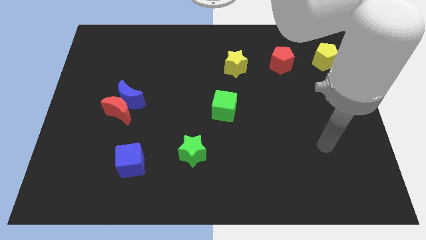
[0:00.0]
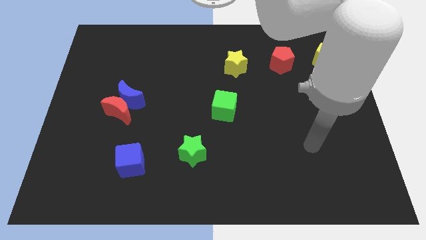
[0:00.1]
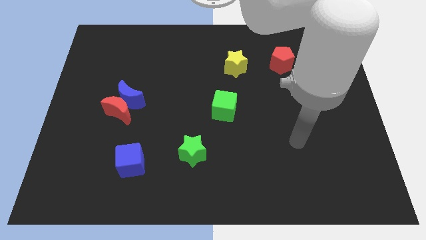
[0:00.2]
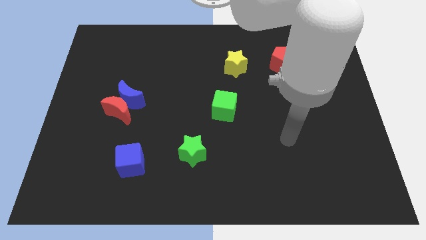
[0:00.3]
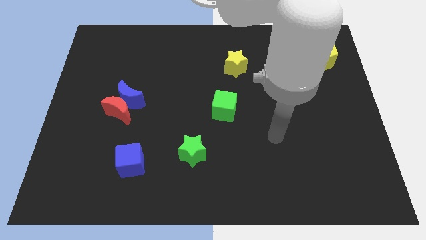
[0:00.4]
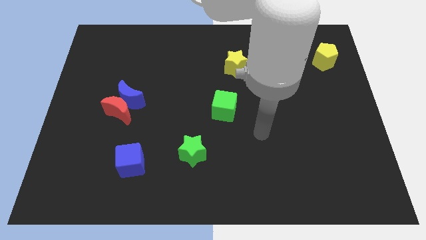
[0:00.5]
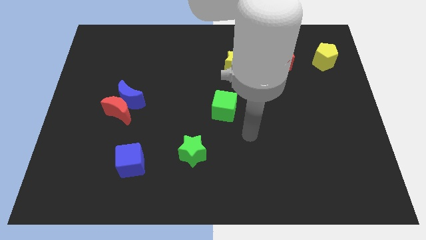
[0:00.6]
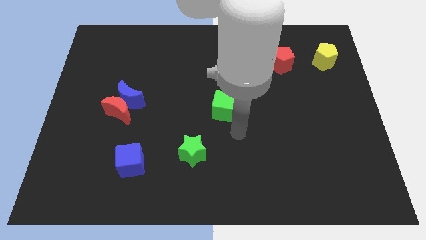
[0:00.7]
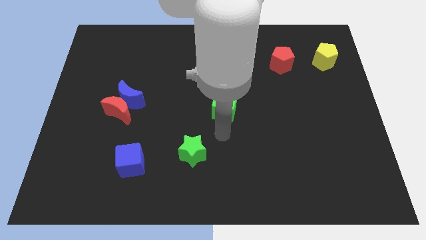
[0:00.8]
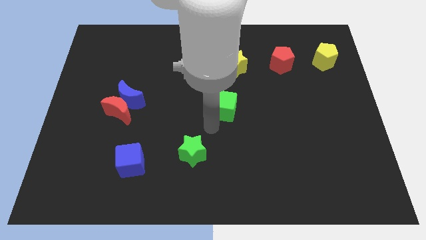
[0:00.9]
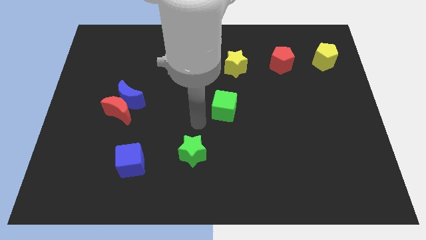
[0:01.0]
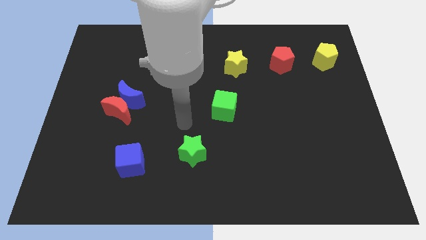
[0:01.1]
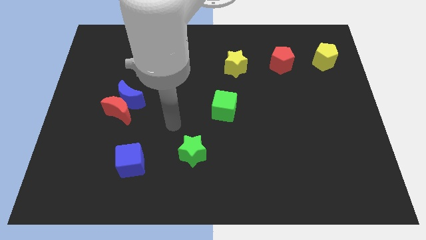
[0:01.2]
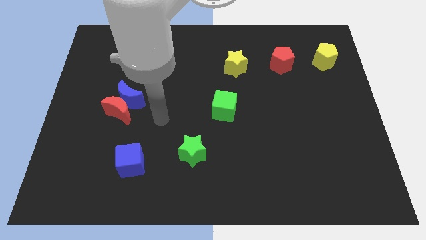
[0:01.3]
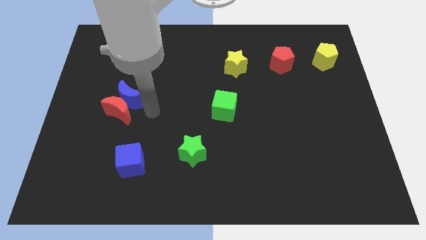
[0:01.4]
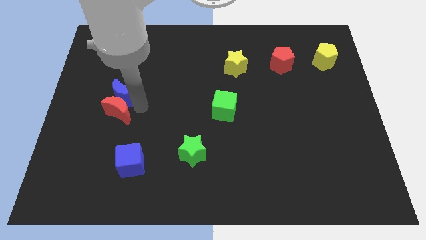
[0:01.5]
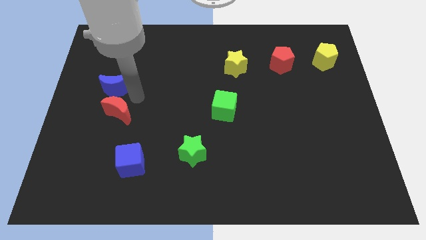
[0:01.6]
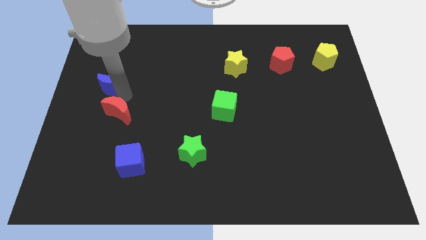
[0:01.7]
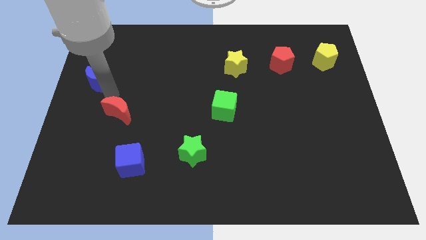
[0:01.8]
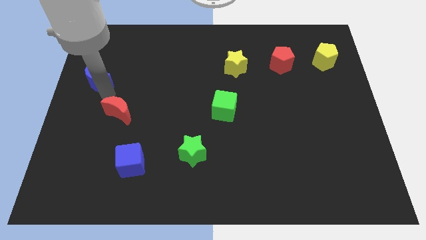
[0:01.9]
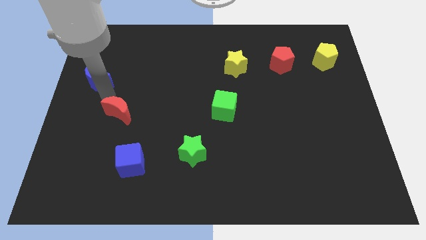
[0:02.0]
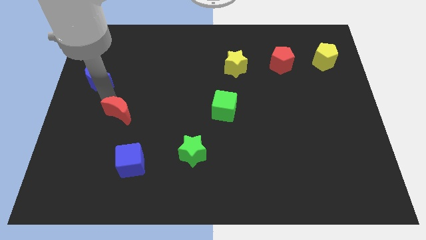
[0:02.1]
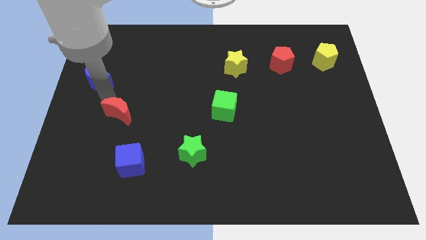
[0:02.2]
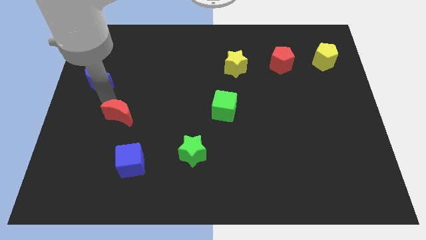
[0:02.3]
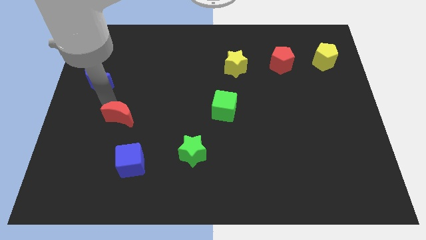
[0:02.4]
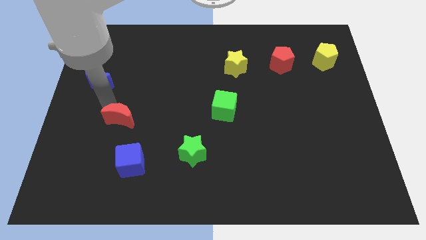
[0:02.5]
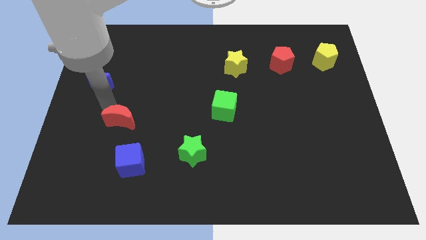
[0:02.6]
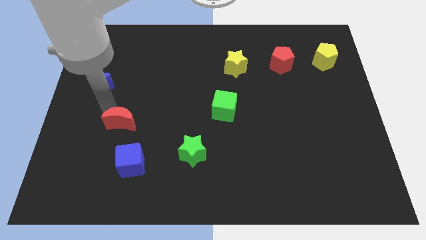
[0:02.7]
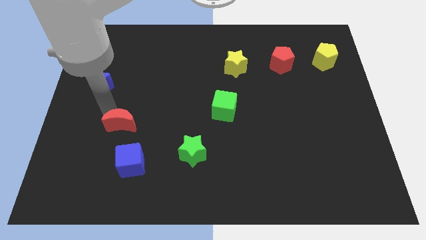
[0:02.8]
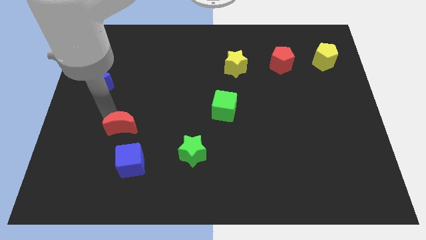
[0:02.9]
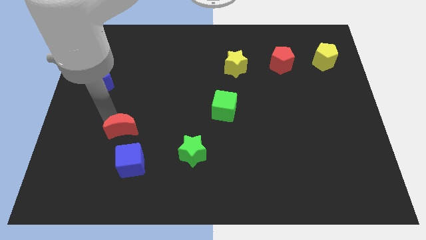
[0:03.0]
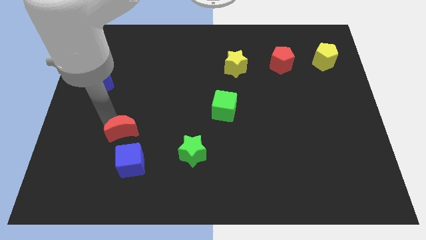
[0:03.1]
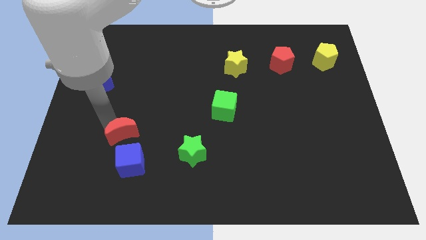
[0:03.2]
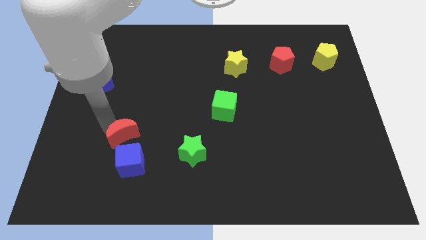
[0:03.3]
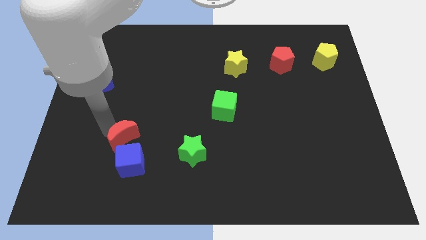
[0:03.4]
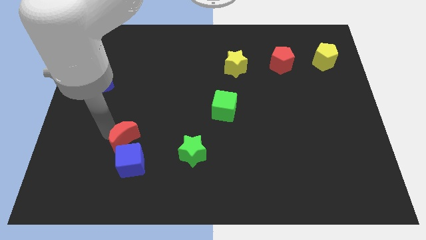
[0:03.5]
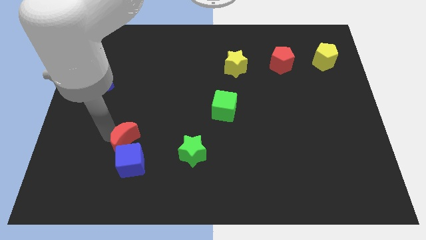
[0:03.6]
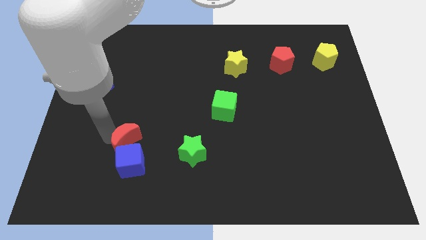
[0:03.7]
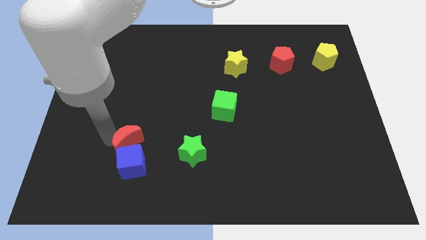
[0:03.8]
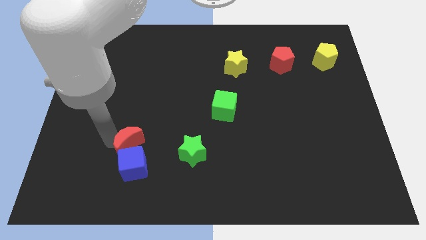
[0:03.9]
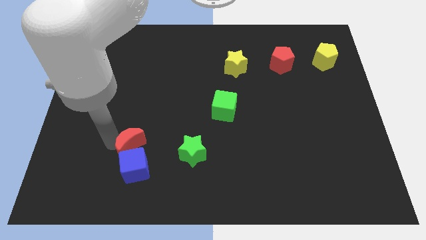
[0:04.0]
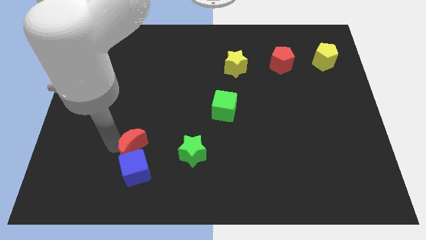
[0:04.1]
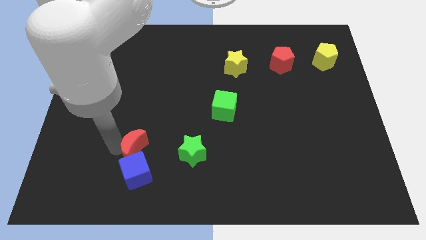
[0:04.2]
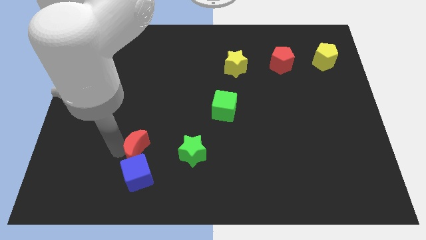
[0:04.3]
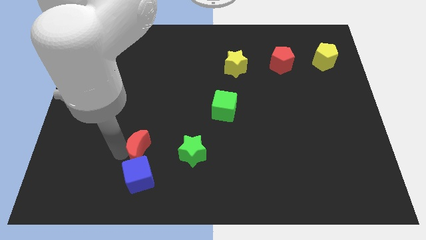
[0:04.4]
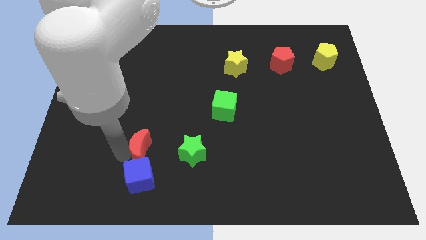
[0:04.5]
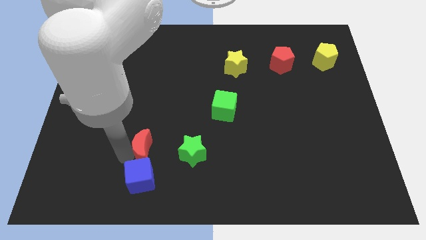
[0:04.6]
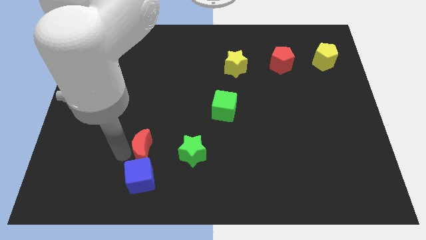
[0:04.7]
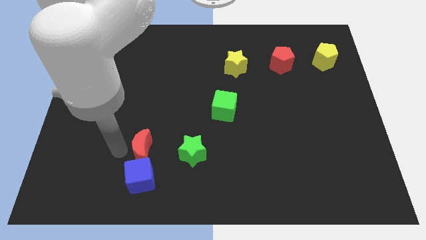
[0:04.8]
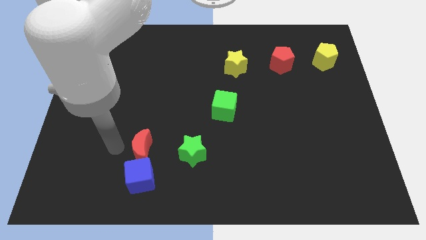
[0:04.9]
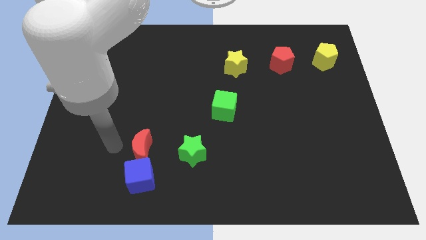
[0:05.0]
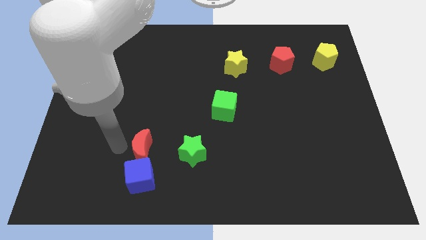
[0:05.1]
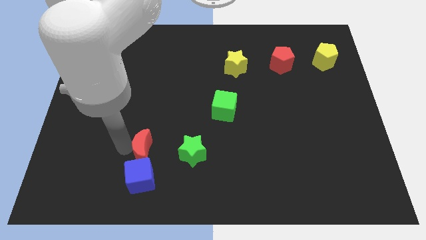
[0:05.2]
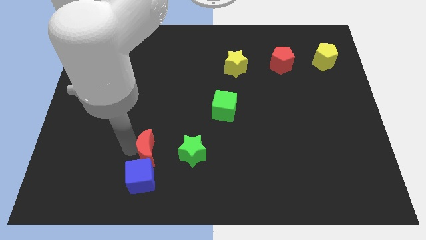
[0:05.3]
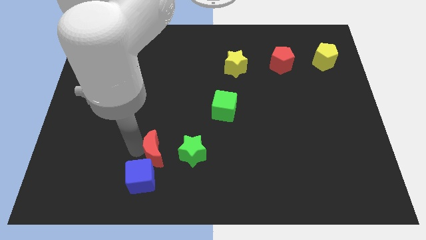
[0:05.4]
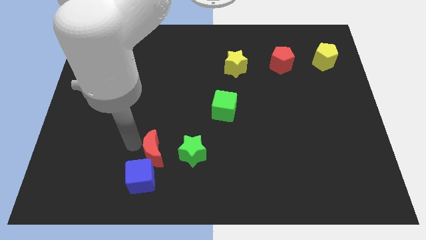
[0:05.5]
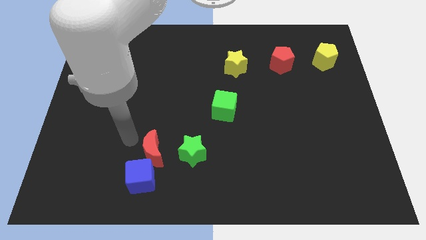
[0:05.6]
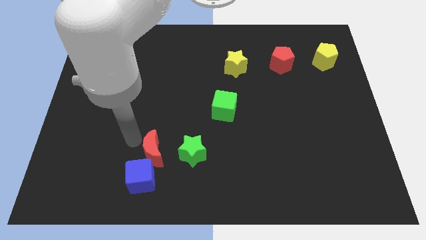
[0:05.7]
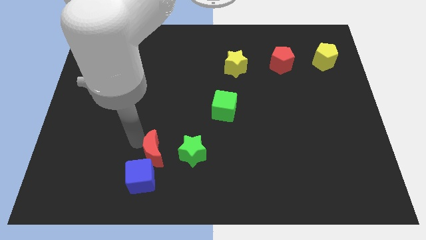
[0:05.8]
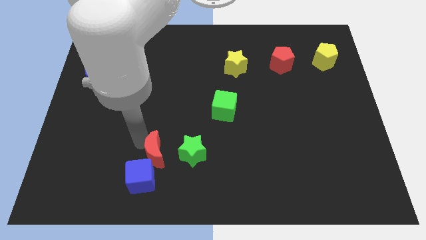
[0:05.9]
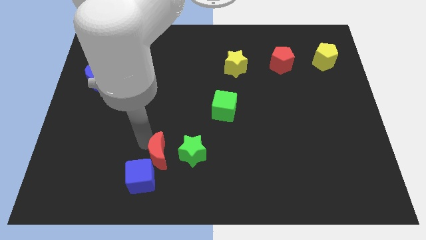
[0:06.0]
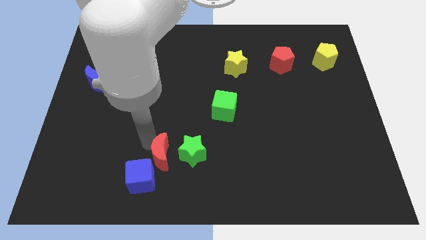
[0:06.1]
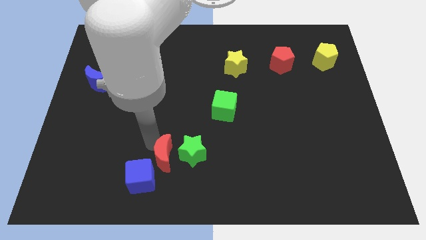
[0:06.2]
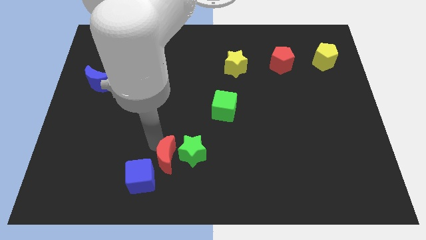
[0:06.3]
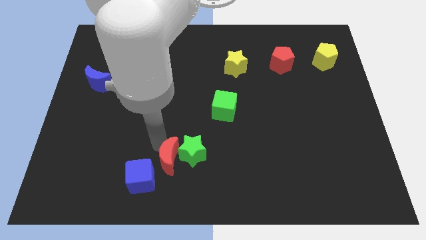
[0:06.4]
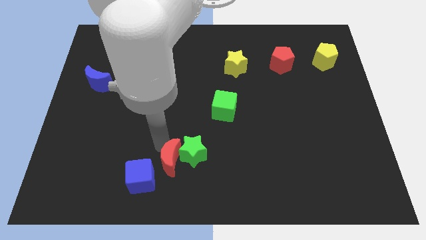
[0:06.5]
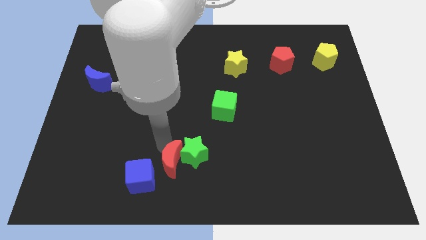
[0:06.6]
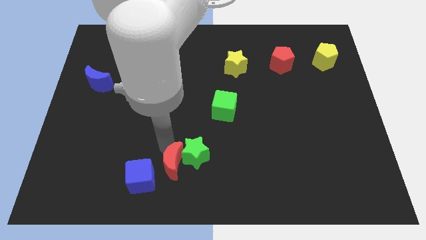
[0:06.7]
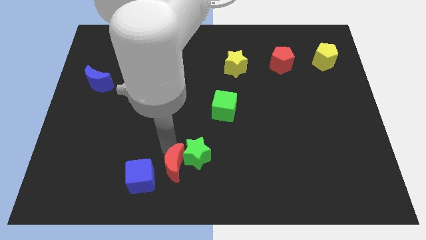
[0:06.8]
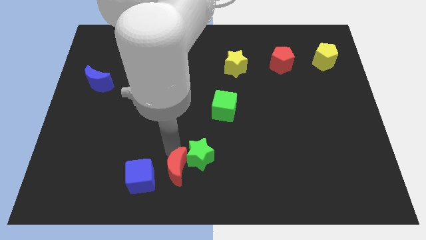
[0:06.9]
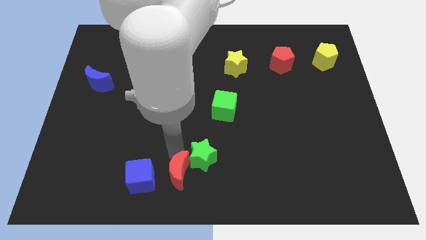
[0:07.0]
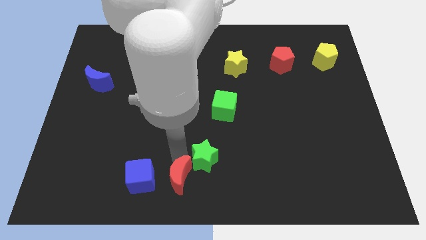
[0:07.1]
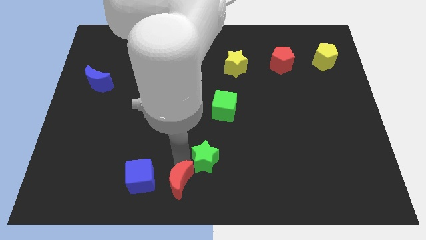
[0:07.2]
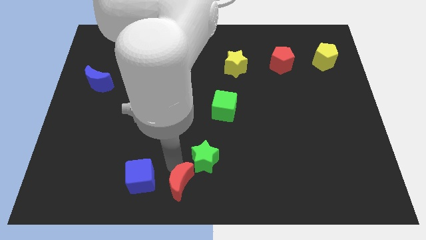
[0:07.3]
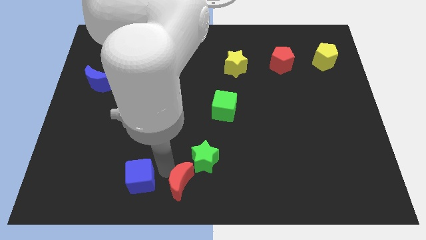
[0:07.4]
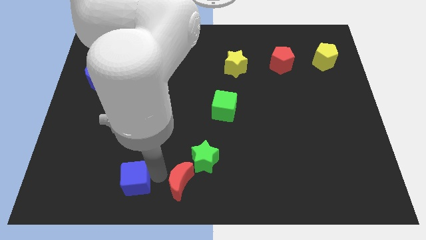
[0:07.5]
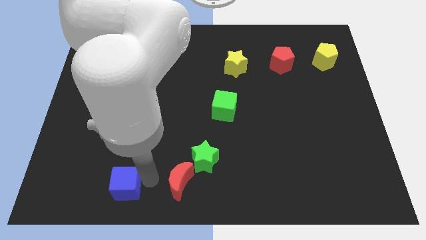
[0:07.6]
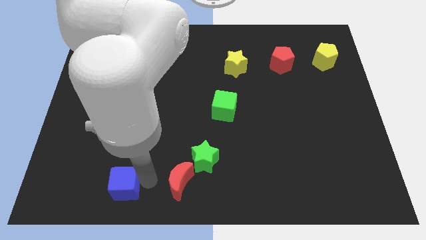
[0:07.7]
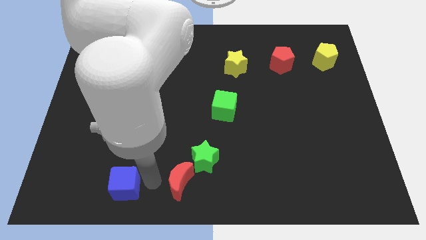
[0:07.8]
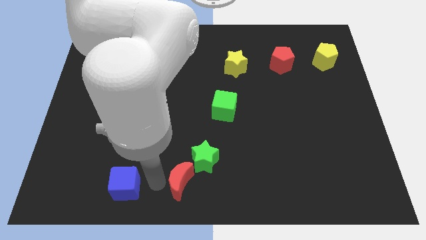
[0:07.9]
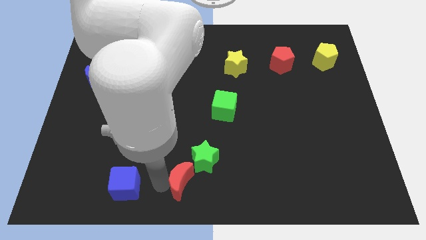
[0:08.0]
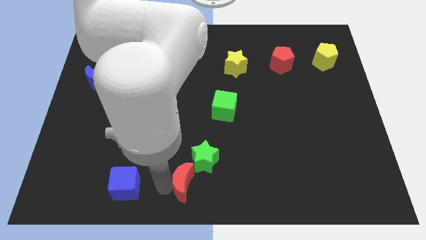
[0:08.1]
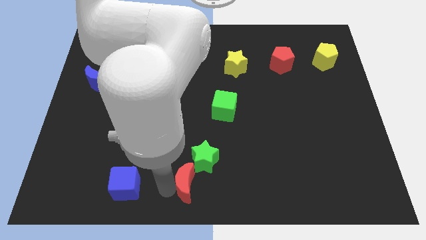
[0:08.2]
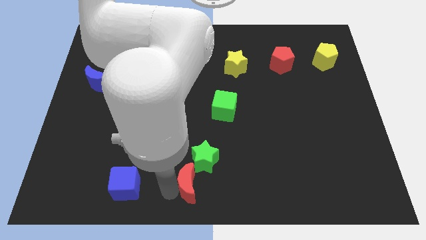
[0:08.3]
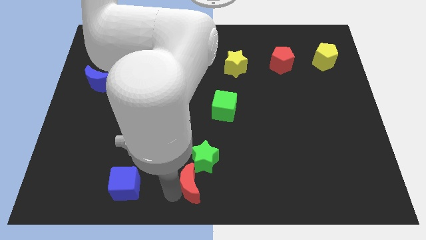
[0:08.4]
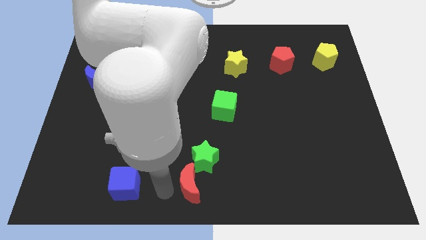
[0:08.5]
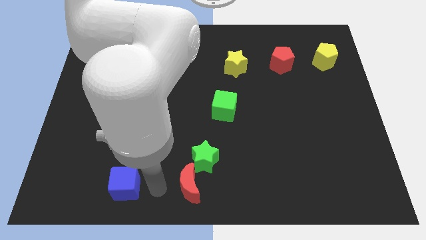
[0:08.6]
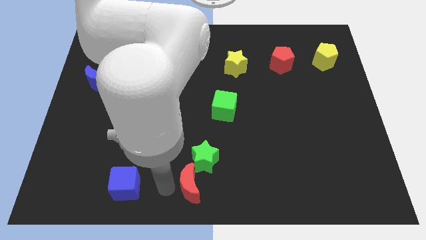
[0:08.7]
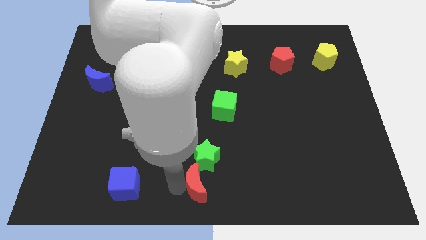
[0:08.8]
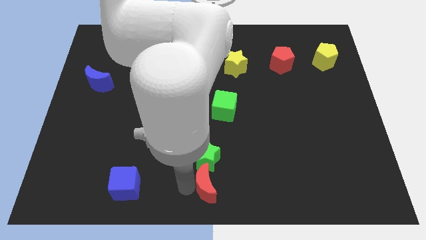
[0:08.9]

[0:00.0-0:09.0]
slide the red moon diagonally down and to the right of the green star
